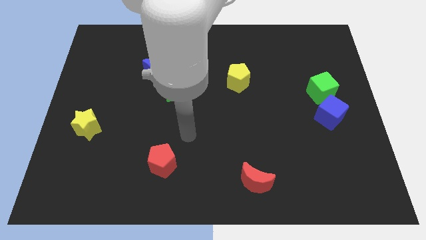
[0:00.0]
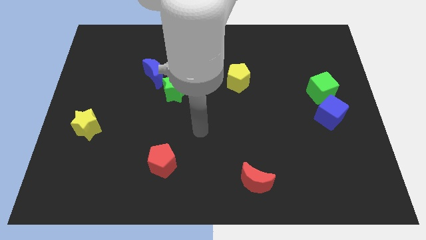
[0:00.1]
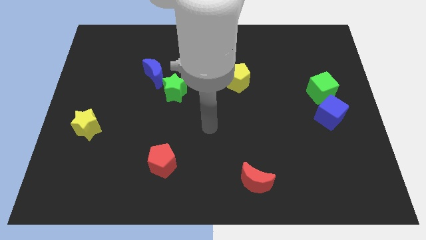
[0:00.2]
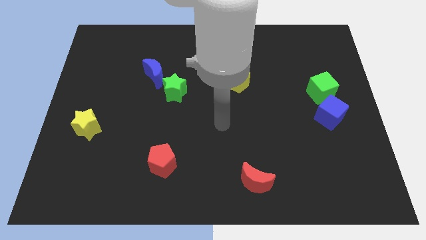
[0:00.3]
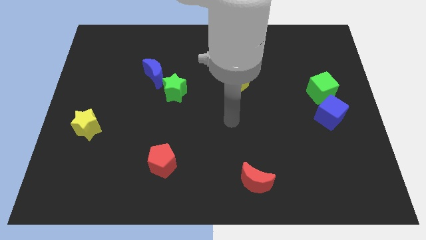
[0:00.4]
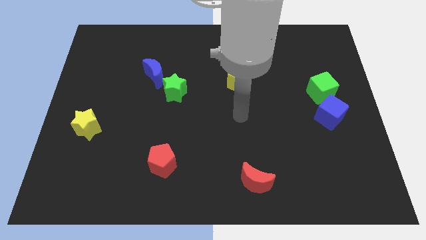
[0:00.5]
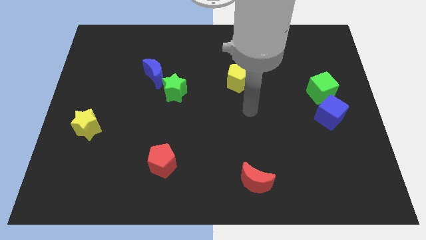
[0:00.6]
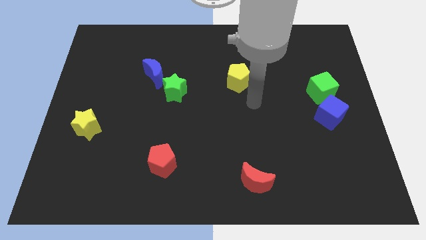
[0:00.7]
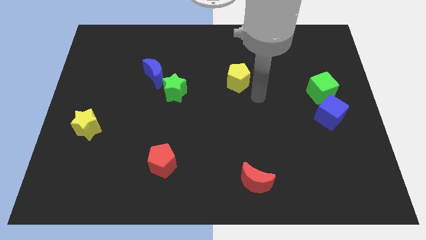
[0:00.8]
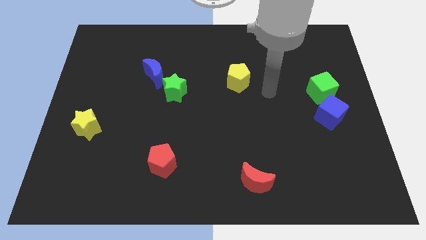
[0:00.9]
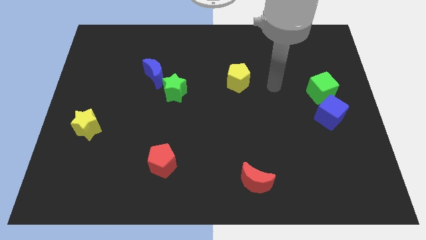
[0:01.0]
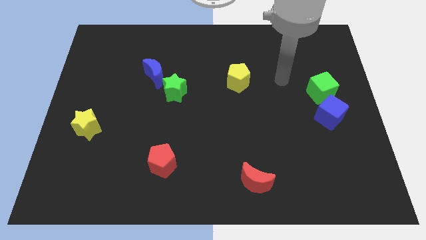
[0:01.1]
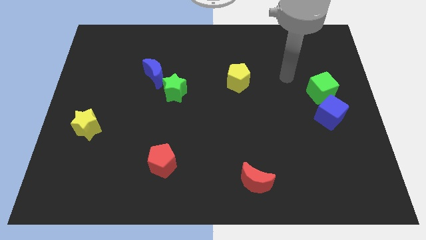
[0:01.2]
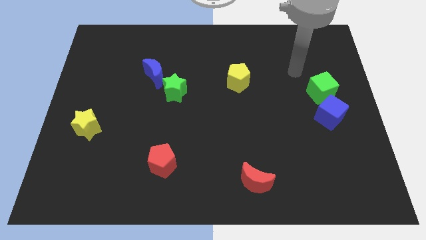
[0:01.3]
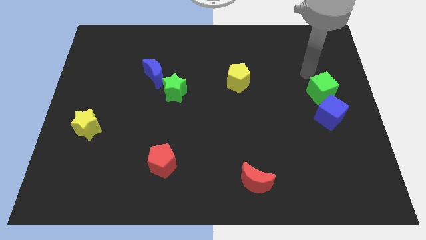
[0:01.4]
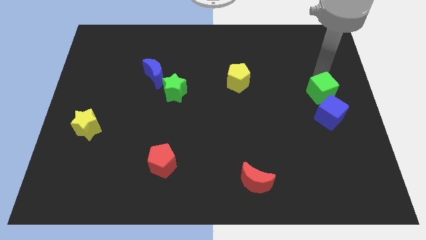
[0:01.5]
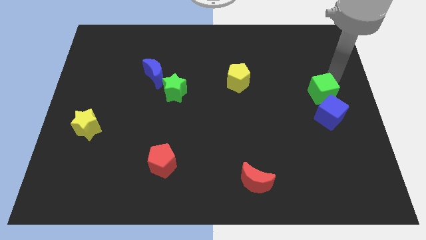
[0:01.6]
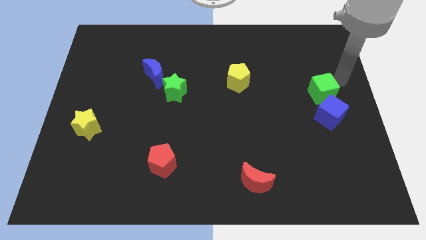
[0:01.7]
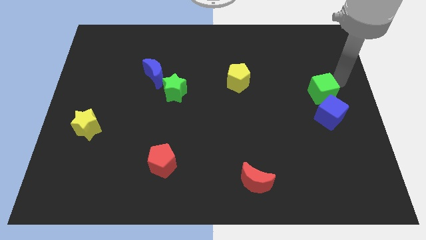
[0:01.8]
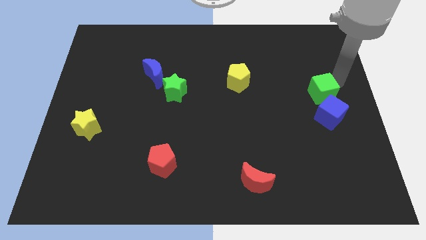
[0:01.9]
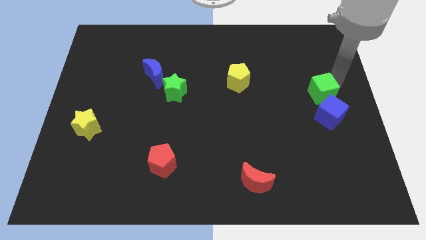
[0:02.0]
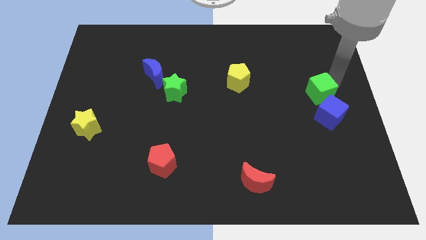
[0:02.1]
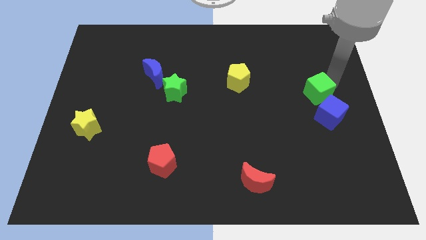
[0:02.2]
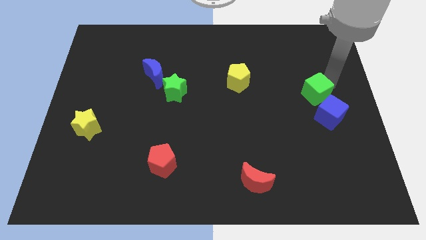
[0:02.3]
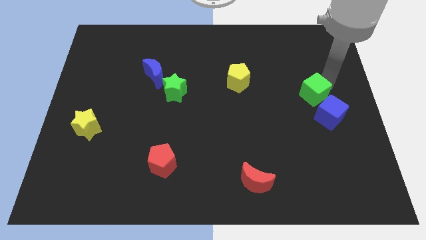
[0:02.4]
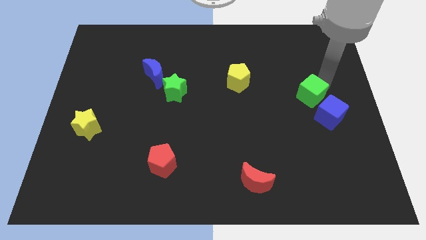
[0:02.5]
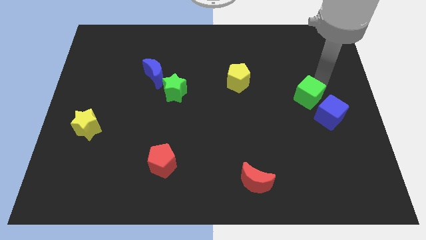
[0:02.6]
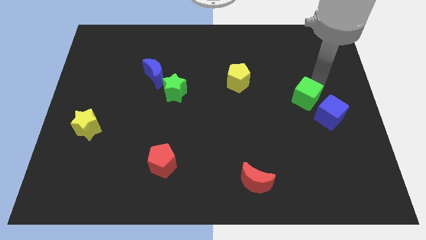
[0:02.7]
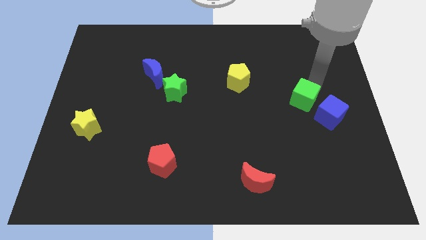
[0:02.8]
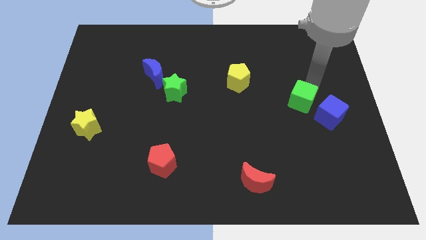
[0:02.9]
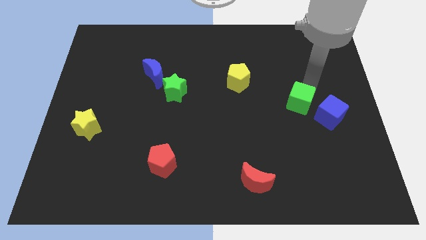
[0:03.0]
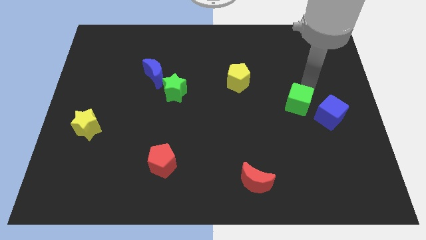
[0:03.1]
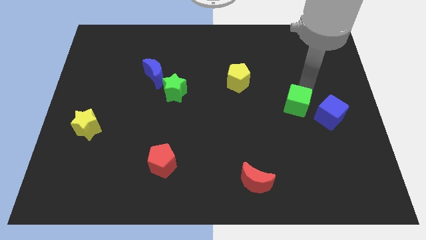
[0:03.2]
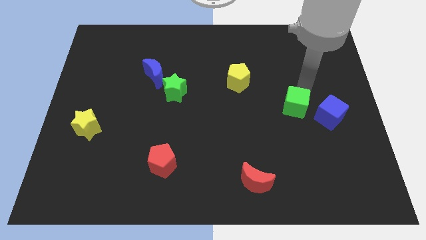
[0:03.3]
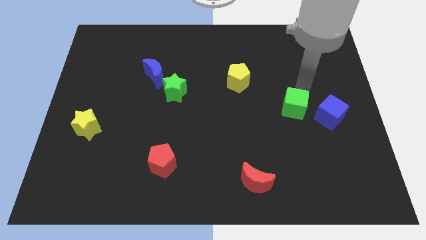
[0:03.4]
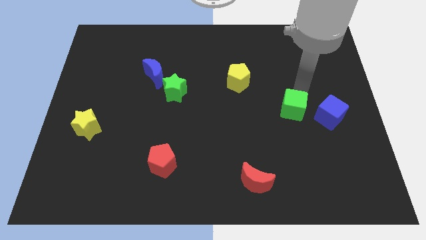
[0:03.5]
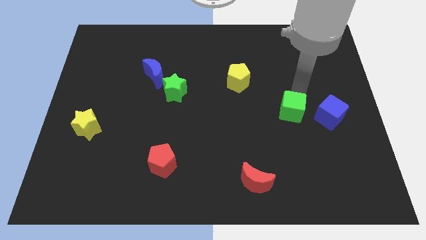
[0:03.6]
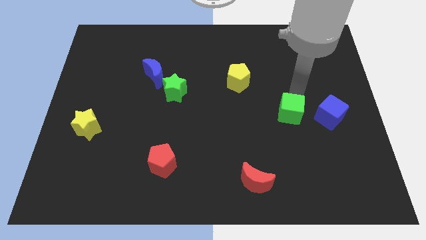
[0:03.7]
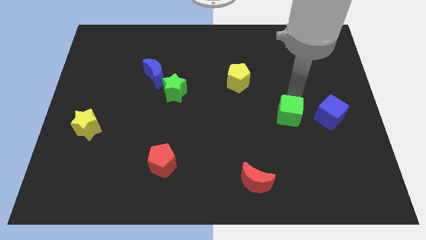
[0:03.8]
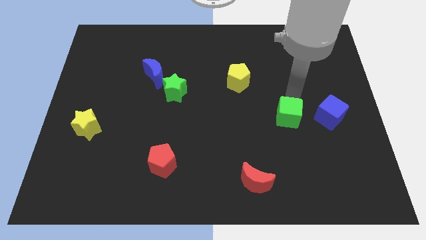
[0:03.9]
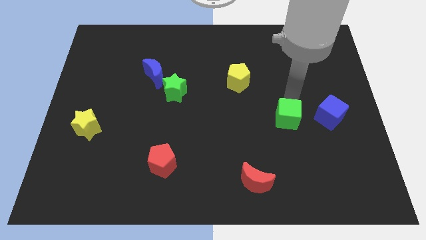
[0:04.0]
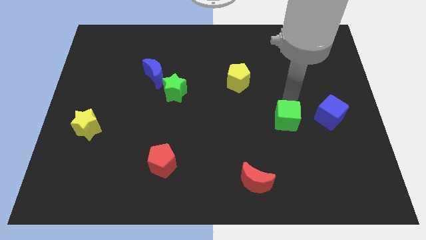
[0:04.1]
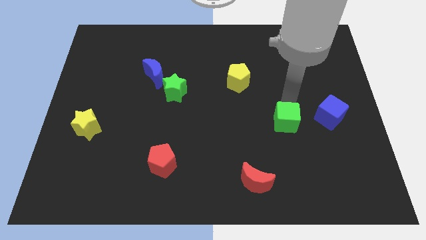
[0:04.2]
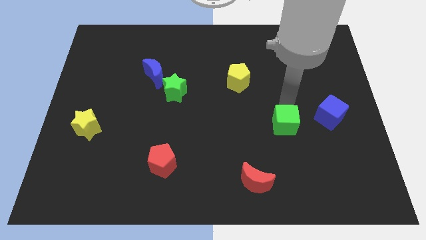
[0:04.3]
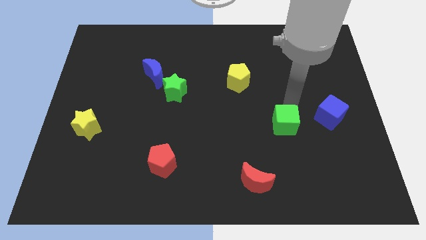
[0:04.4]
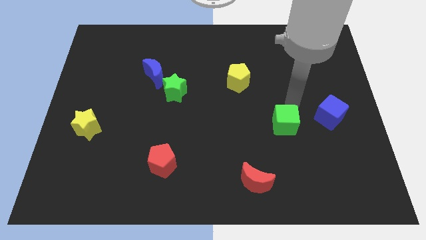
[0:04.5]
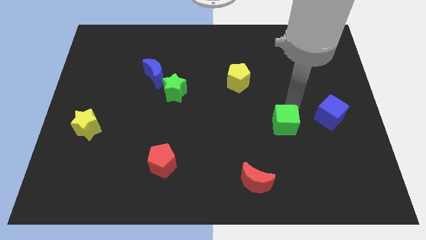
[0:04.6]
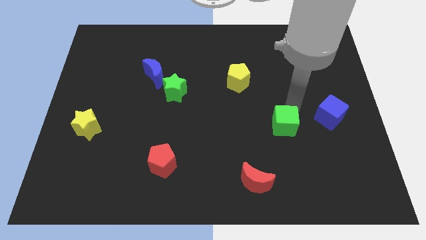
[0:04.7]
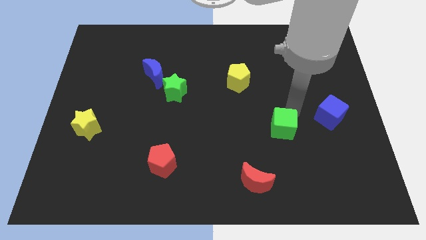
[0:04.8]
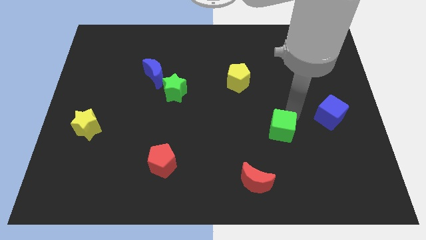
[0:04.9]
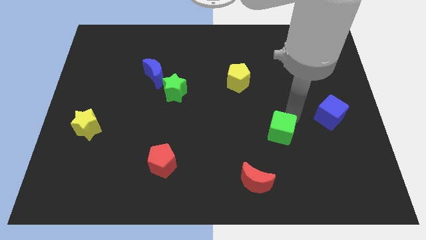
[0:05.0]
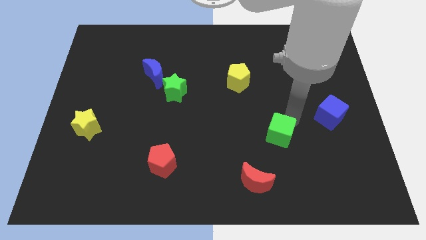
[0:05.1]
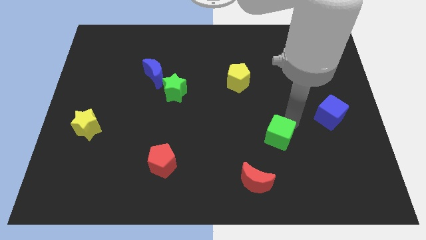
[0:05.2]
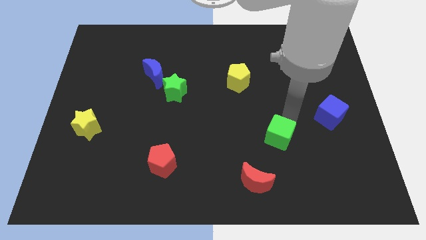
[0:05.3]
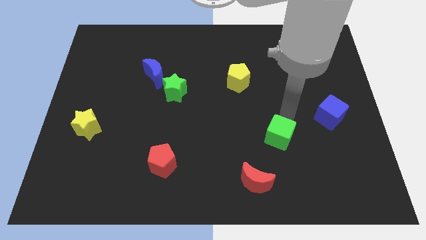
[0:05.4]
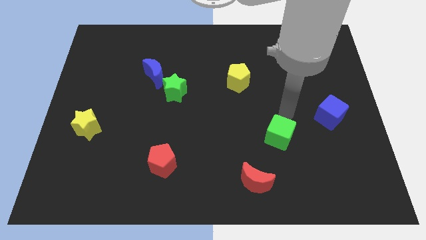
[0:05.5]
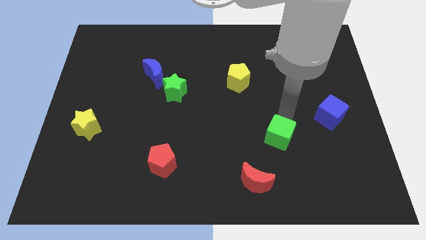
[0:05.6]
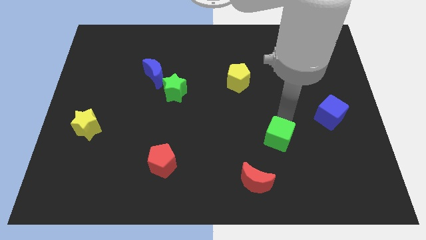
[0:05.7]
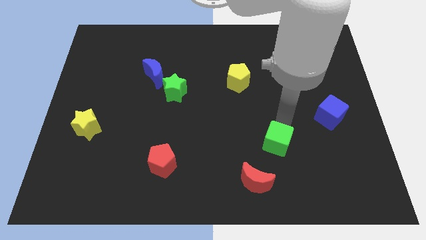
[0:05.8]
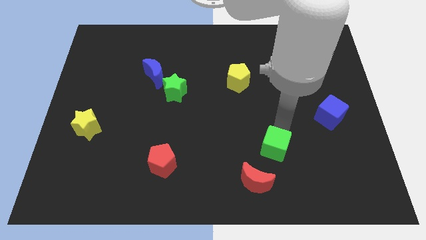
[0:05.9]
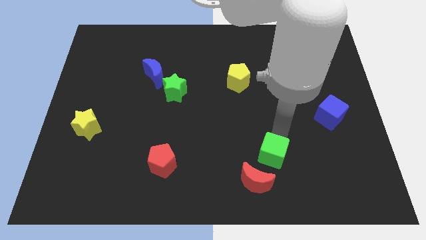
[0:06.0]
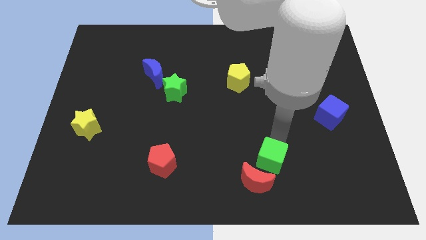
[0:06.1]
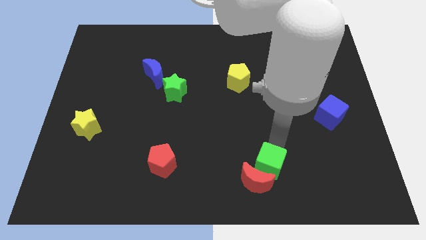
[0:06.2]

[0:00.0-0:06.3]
put the green cube close to the red moon
